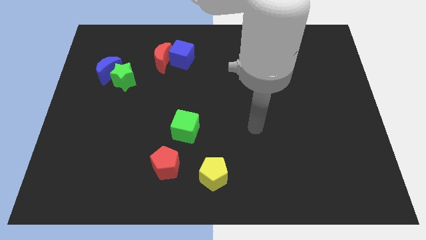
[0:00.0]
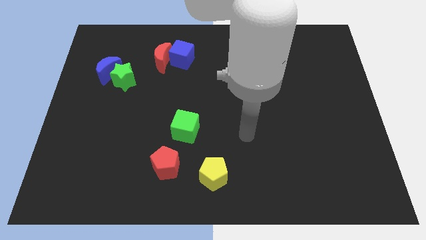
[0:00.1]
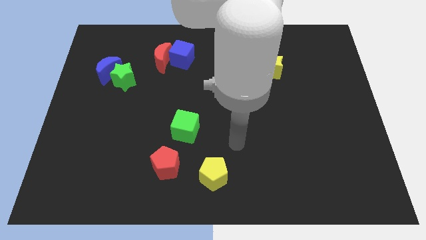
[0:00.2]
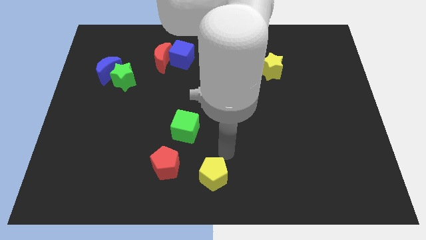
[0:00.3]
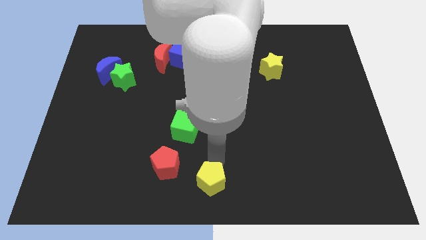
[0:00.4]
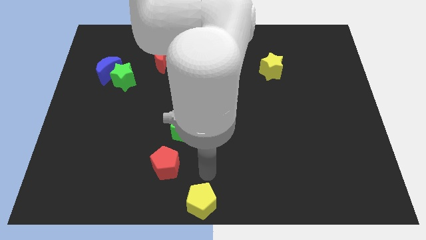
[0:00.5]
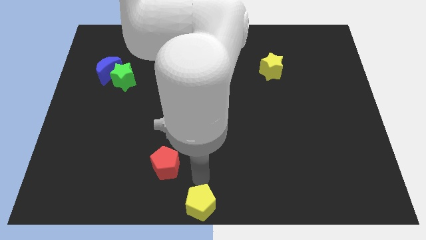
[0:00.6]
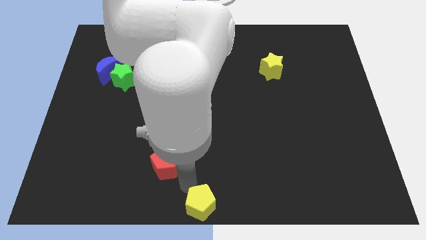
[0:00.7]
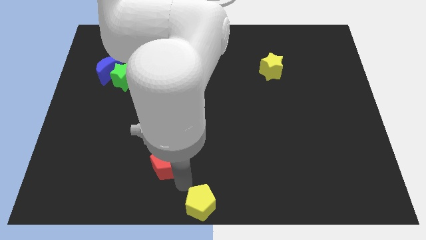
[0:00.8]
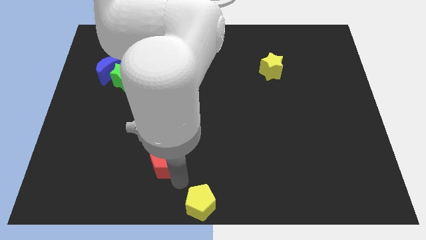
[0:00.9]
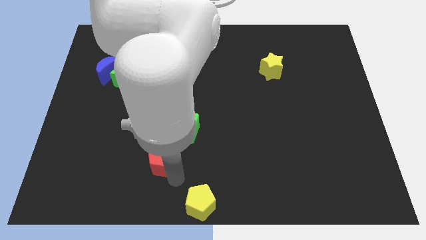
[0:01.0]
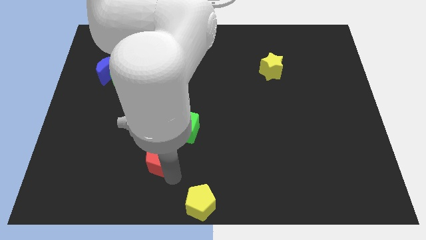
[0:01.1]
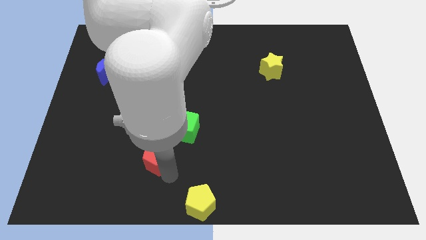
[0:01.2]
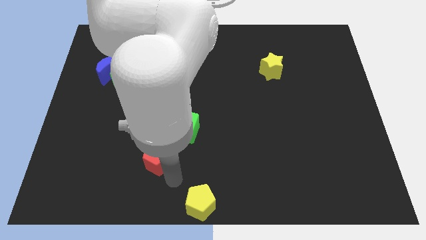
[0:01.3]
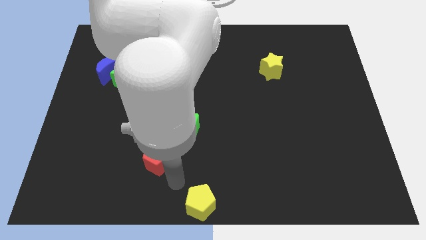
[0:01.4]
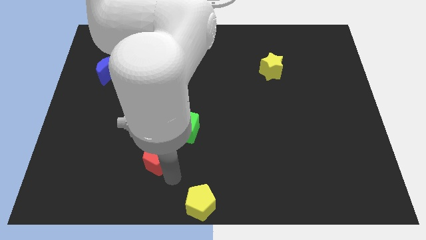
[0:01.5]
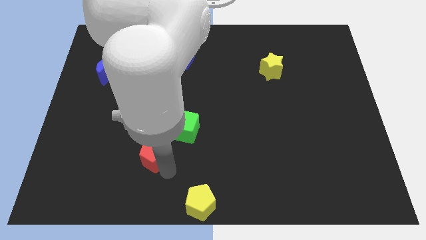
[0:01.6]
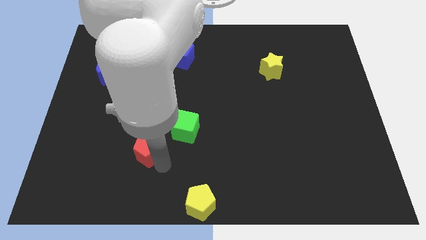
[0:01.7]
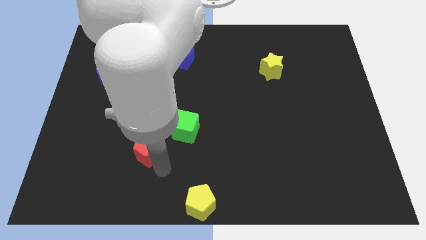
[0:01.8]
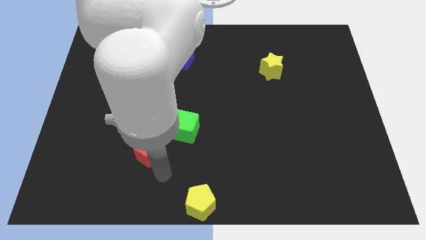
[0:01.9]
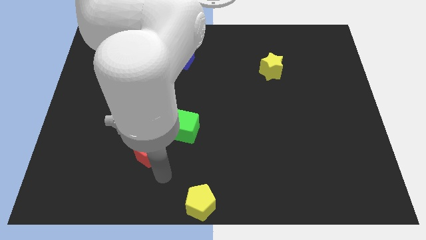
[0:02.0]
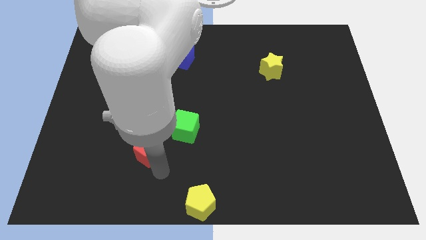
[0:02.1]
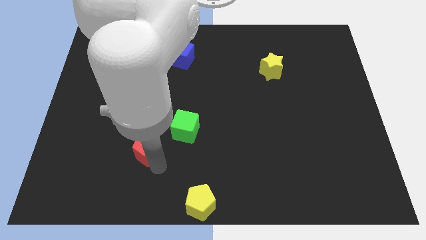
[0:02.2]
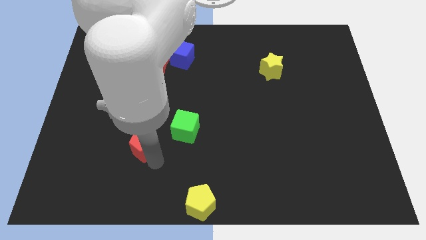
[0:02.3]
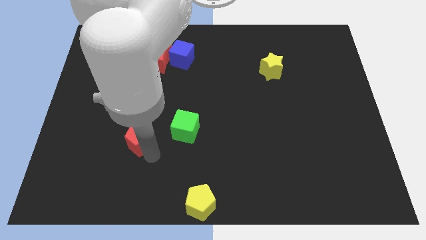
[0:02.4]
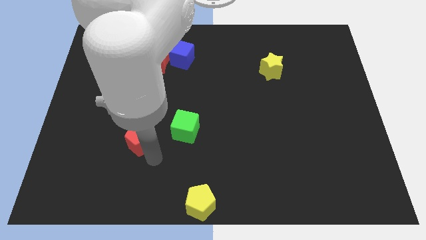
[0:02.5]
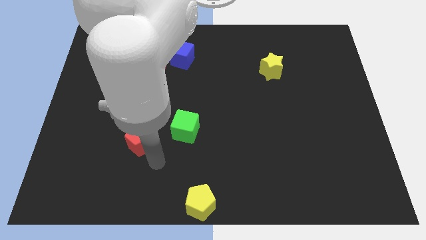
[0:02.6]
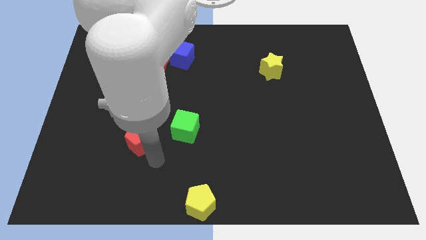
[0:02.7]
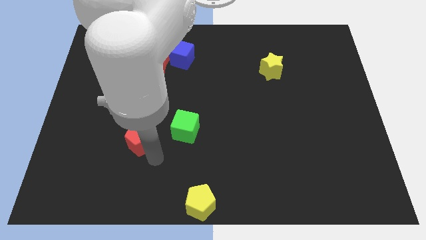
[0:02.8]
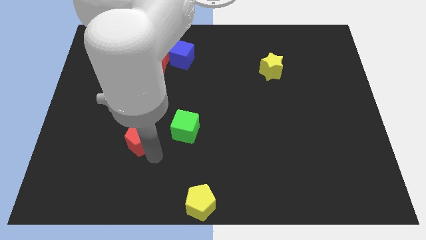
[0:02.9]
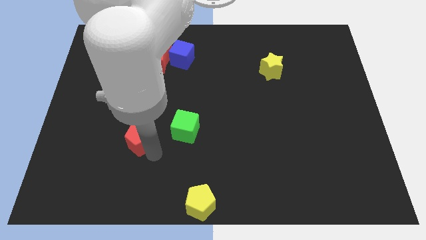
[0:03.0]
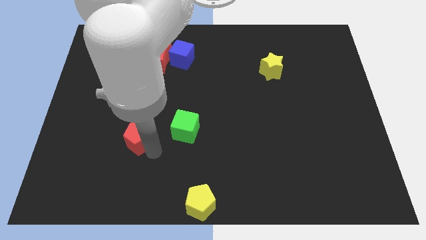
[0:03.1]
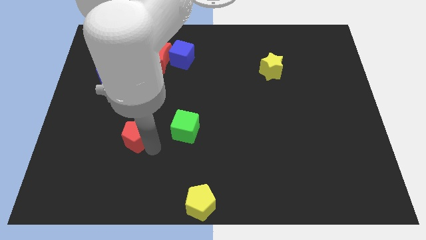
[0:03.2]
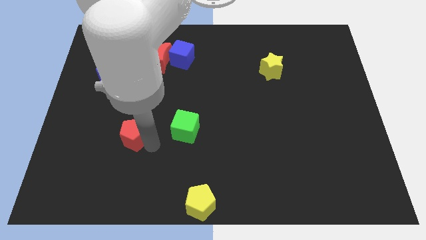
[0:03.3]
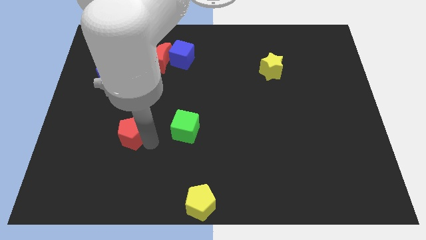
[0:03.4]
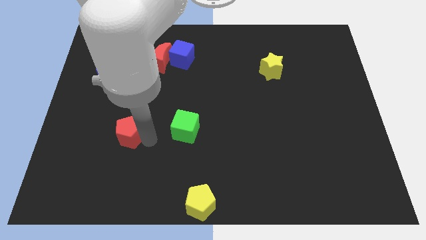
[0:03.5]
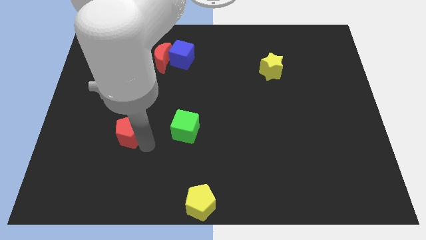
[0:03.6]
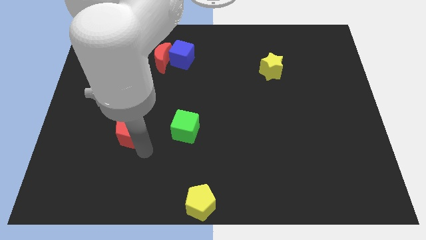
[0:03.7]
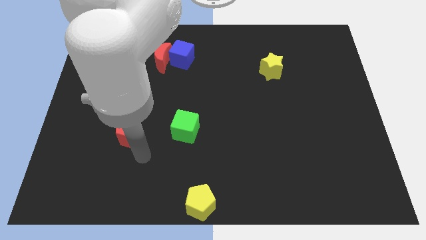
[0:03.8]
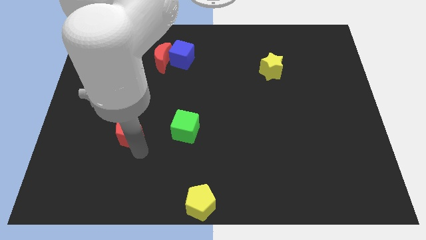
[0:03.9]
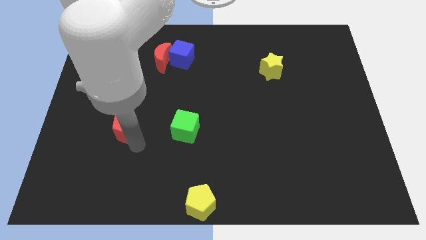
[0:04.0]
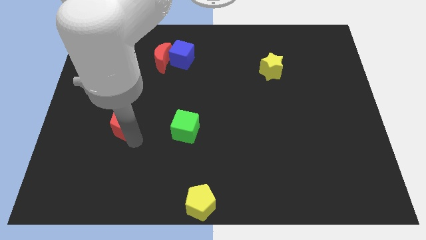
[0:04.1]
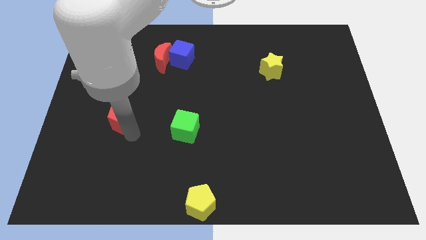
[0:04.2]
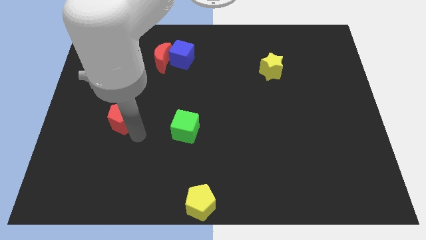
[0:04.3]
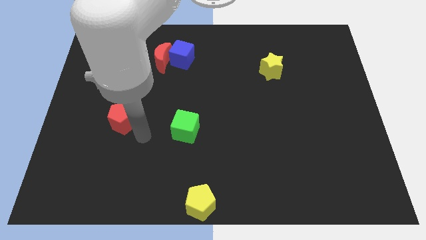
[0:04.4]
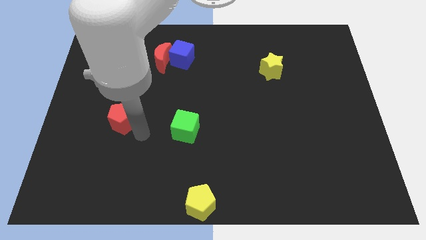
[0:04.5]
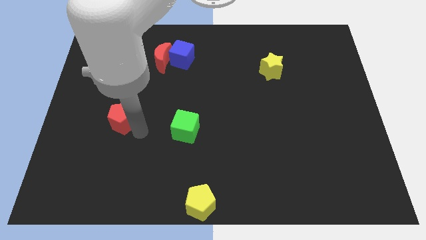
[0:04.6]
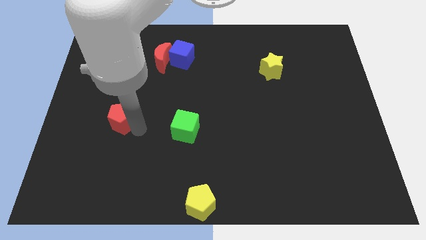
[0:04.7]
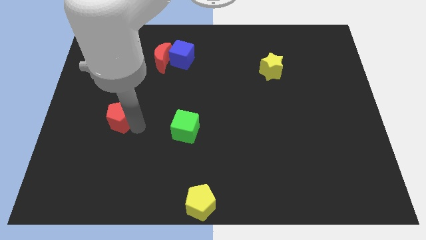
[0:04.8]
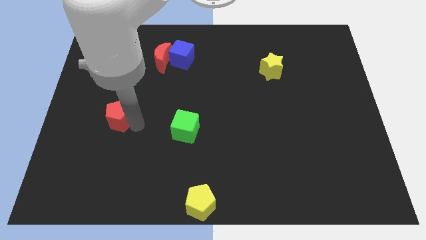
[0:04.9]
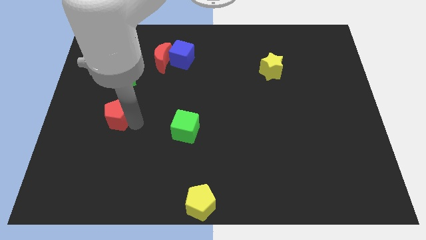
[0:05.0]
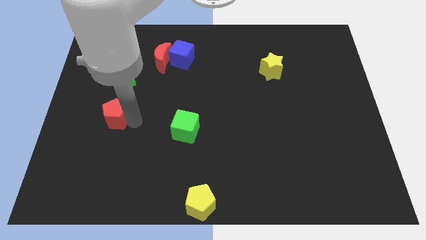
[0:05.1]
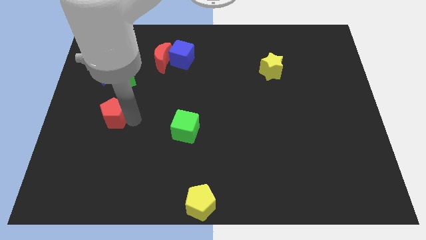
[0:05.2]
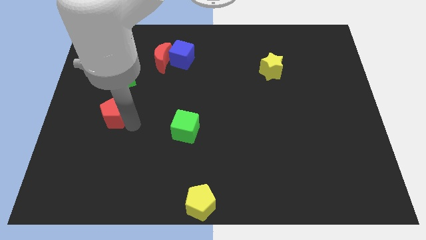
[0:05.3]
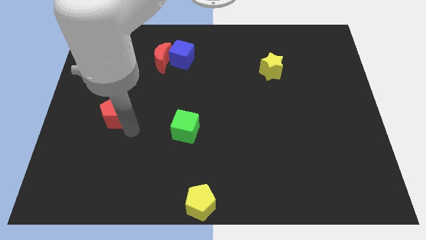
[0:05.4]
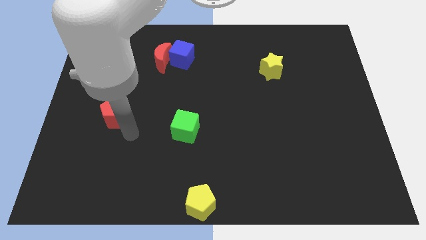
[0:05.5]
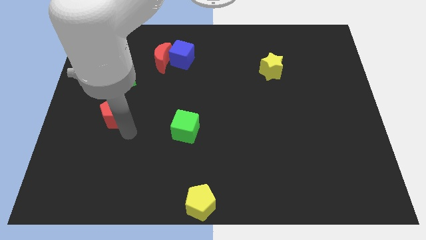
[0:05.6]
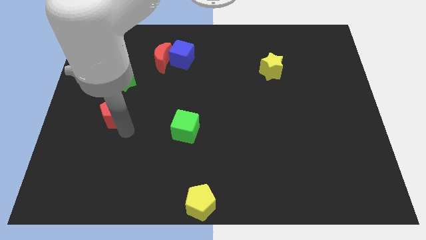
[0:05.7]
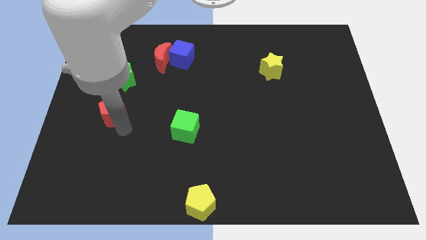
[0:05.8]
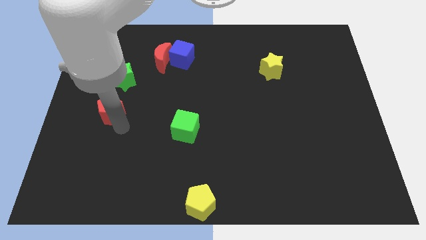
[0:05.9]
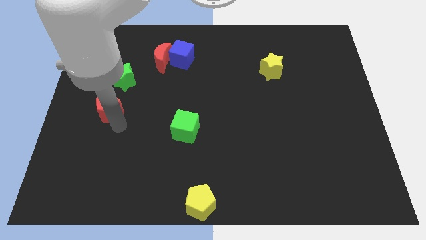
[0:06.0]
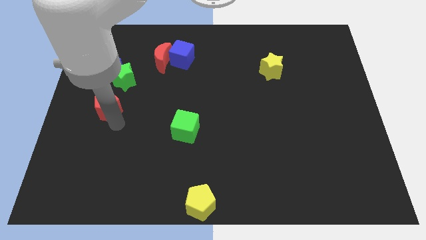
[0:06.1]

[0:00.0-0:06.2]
push the red pentagon to the bottom left of the green star
